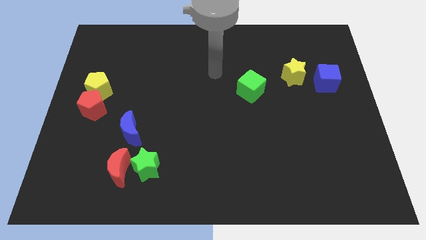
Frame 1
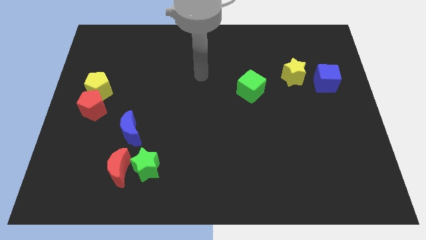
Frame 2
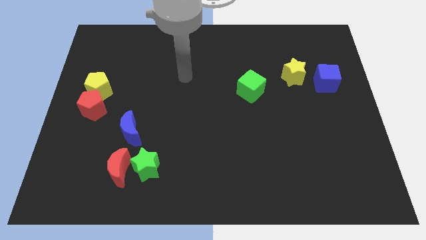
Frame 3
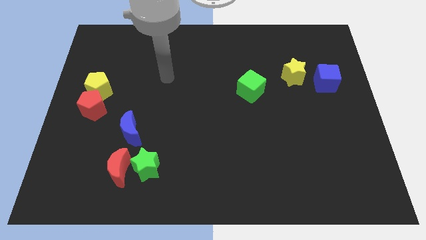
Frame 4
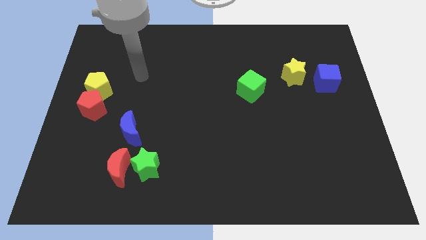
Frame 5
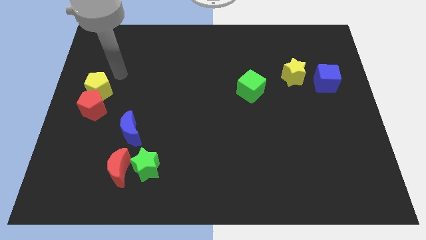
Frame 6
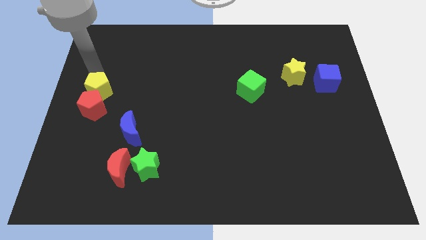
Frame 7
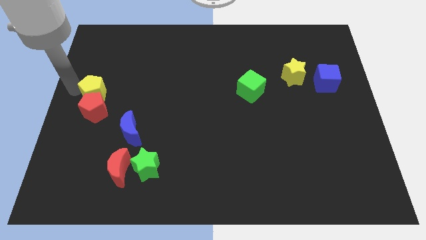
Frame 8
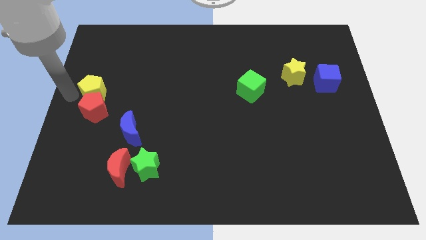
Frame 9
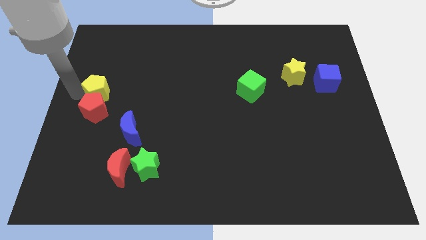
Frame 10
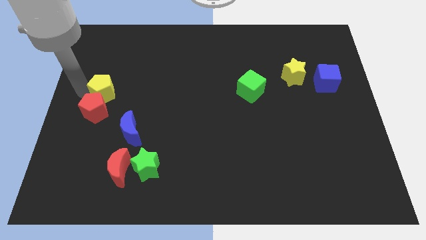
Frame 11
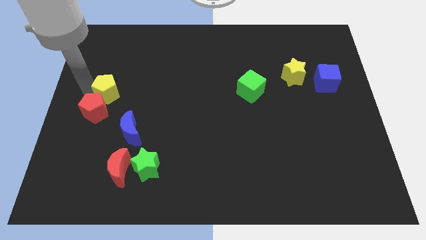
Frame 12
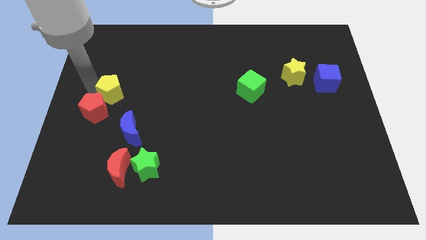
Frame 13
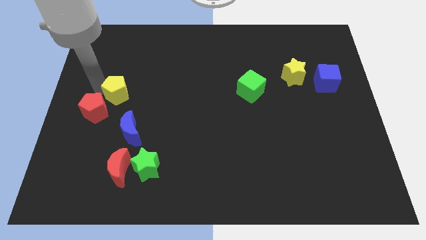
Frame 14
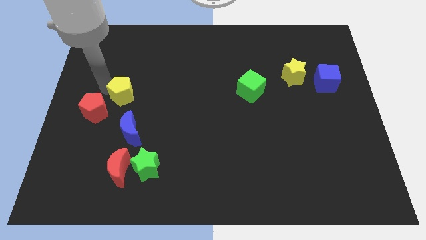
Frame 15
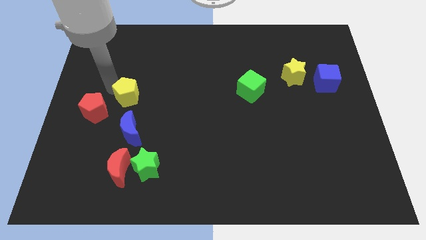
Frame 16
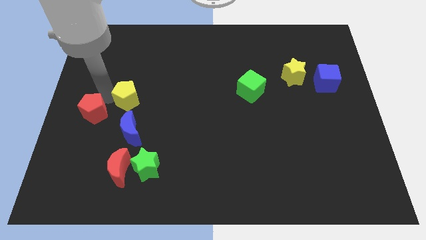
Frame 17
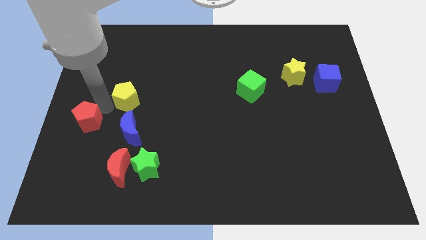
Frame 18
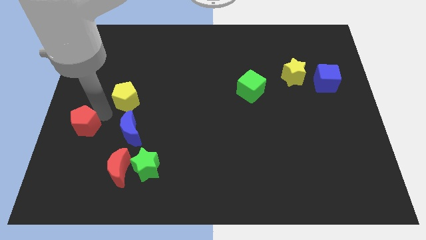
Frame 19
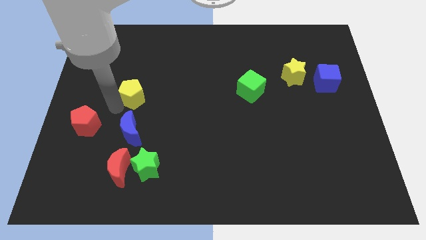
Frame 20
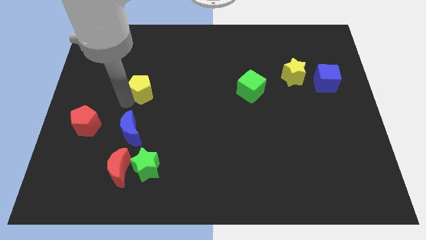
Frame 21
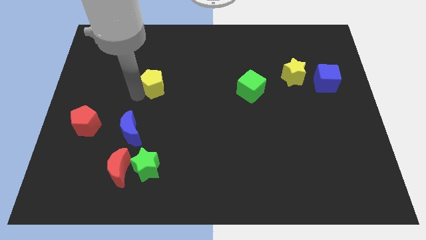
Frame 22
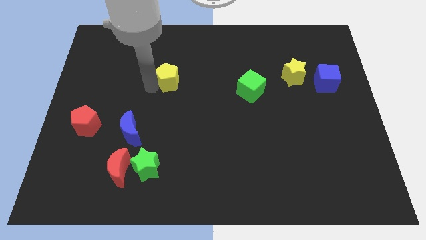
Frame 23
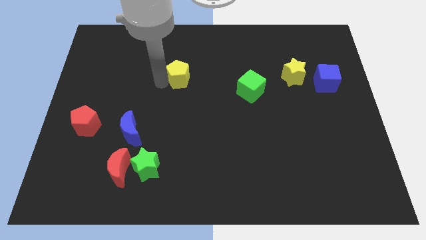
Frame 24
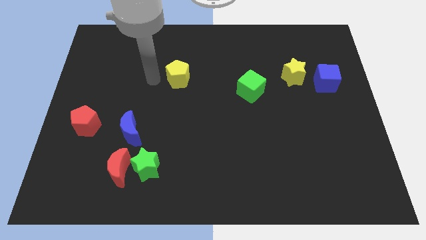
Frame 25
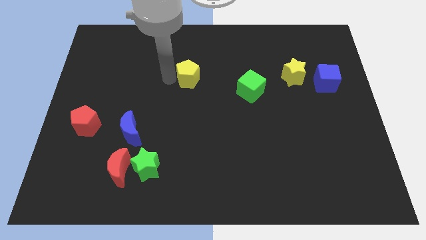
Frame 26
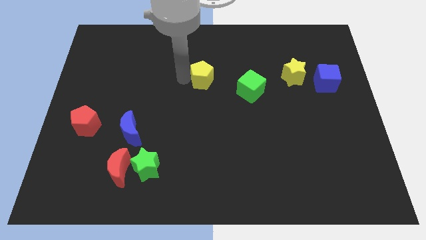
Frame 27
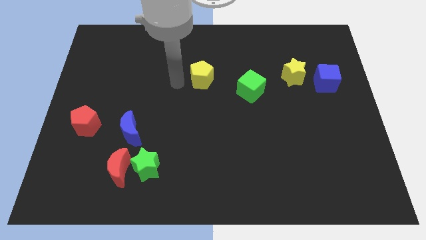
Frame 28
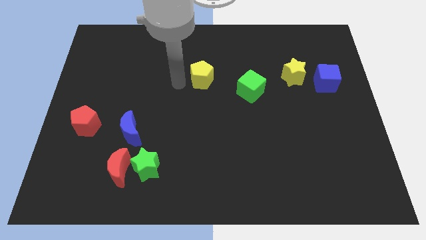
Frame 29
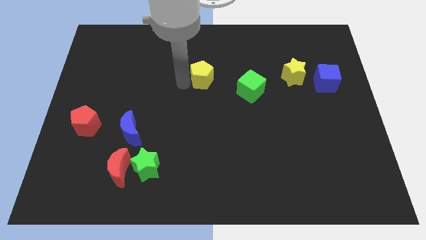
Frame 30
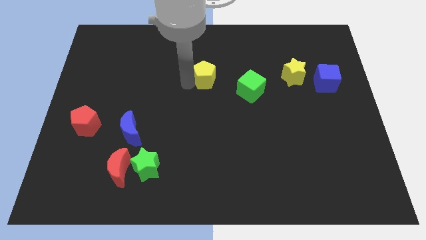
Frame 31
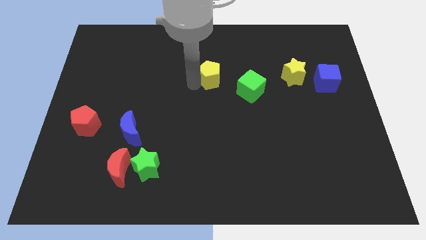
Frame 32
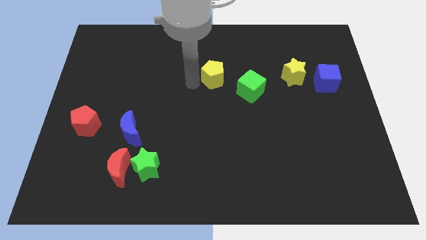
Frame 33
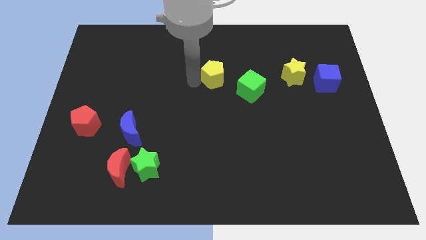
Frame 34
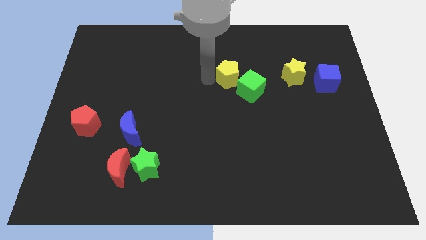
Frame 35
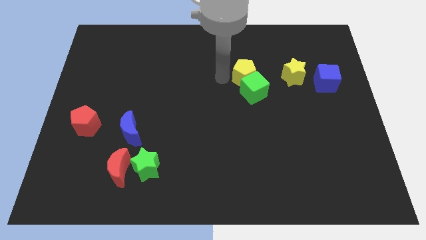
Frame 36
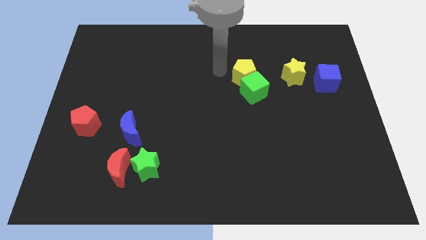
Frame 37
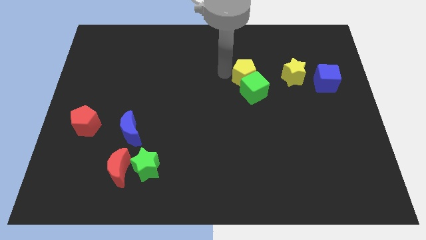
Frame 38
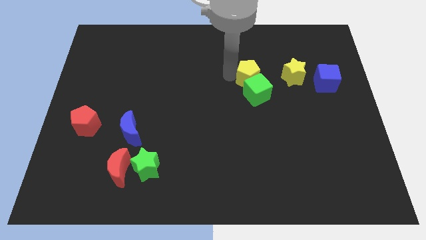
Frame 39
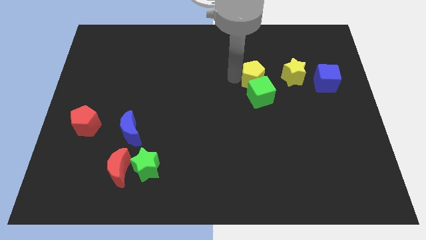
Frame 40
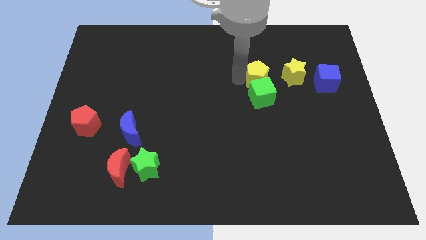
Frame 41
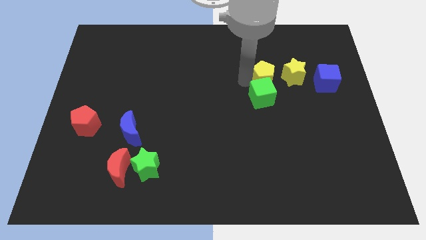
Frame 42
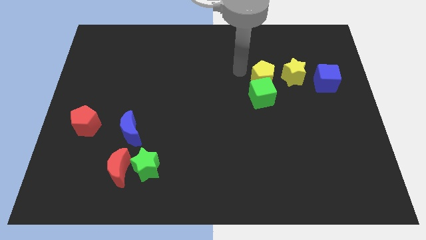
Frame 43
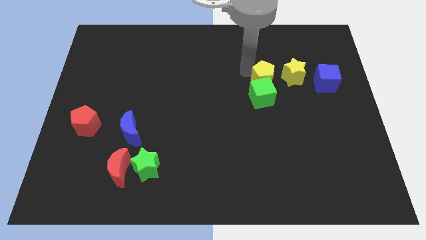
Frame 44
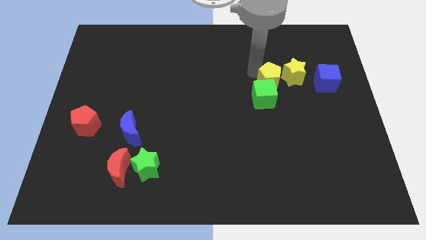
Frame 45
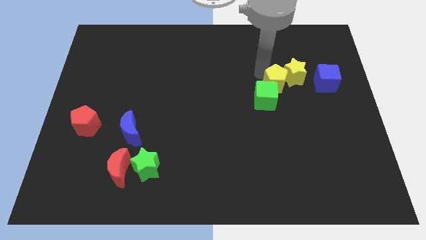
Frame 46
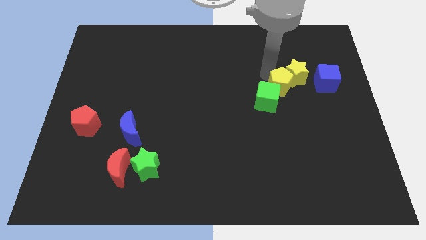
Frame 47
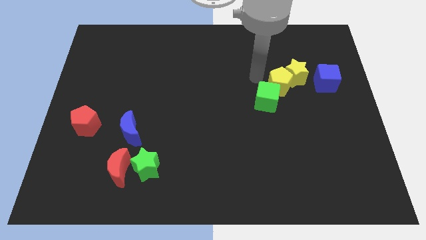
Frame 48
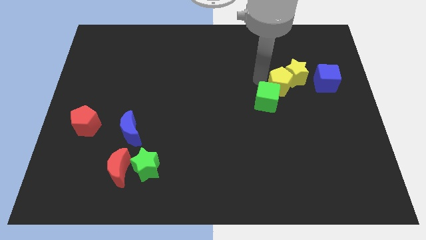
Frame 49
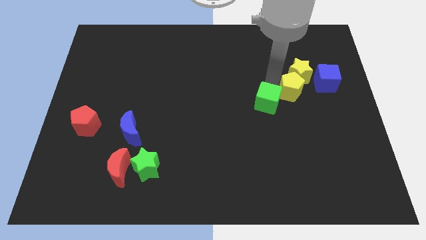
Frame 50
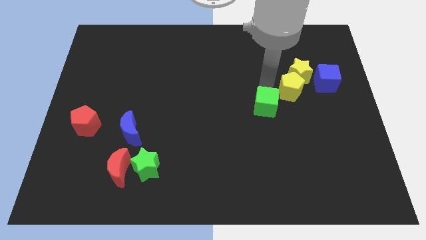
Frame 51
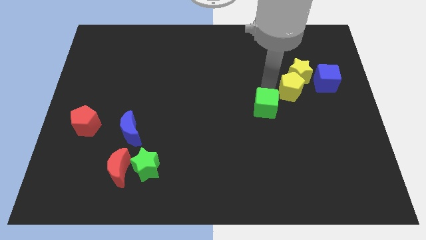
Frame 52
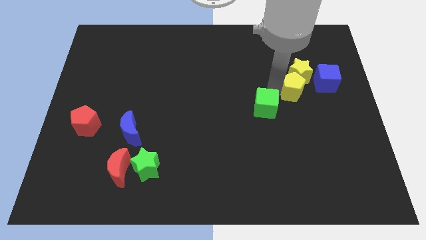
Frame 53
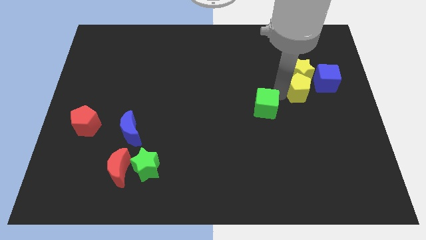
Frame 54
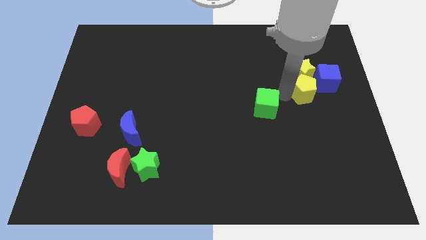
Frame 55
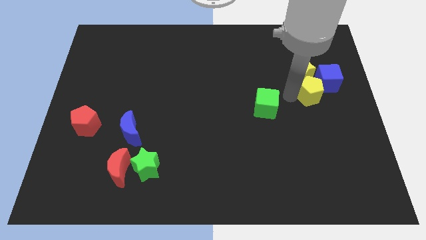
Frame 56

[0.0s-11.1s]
push the yellow pentagon close to the blue cube

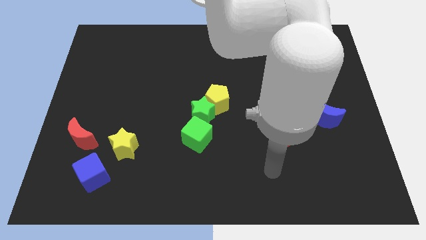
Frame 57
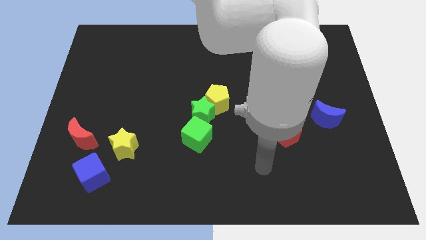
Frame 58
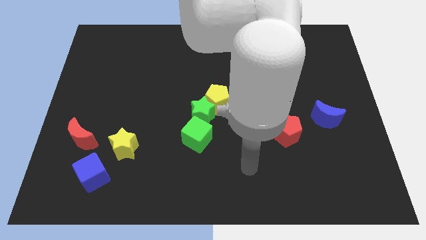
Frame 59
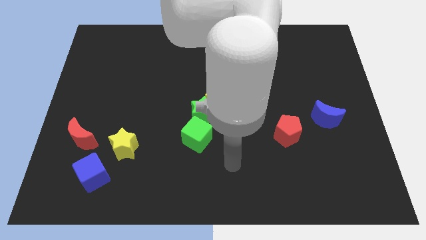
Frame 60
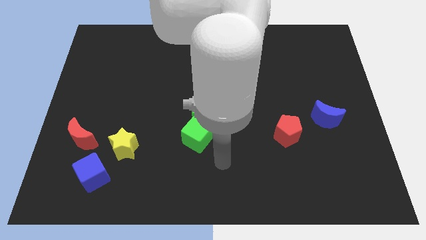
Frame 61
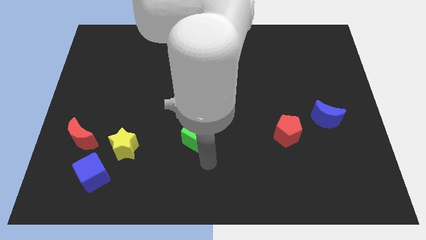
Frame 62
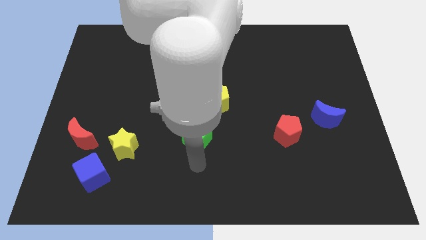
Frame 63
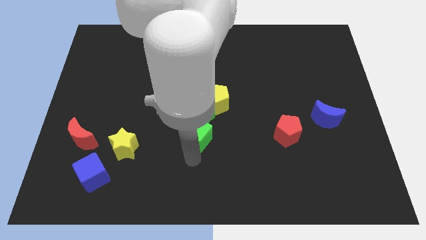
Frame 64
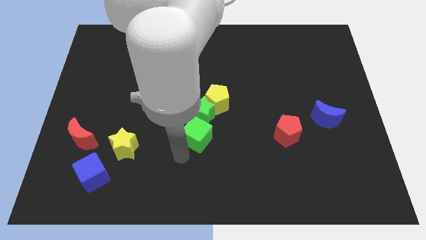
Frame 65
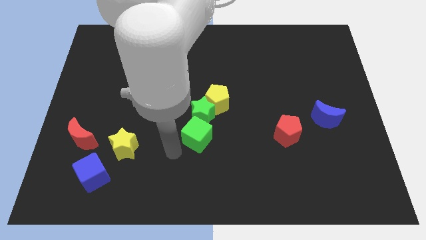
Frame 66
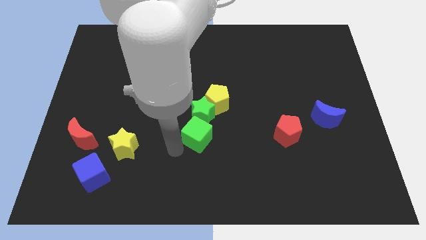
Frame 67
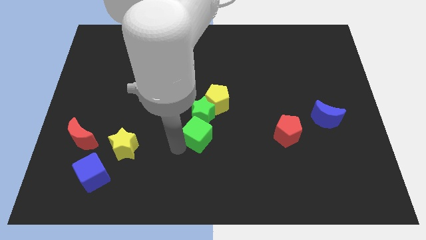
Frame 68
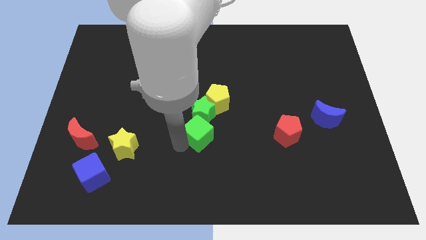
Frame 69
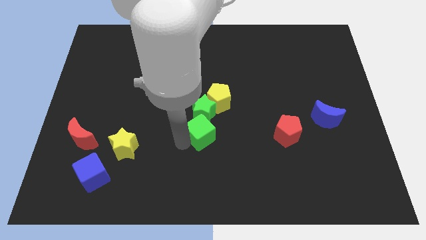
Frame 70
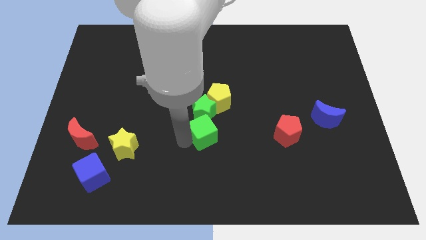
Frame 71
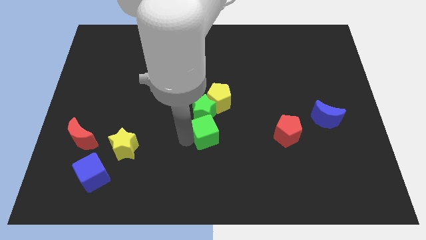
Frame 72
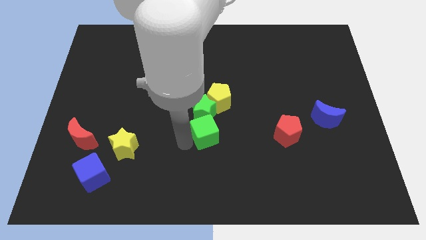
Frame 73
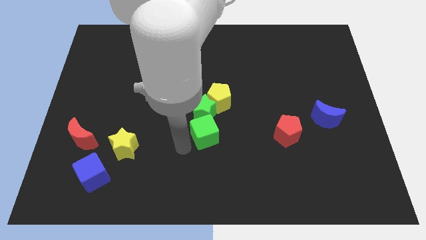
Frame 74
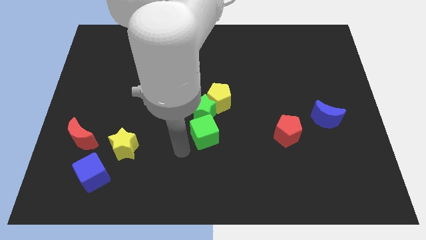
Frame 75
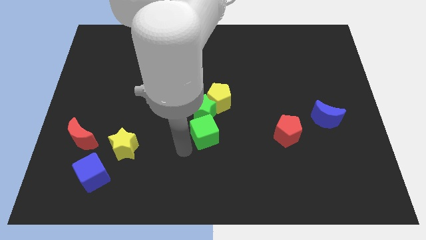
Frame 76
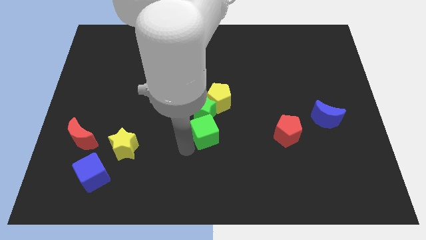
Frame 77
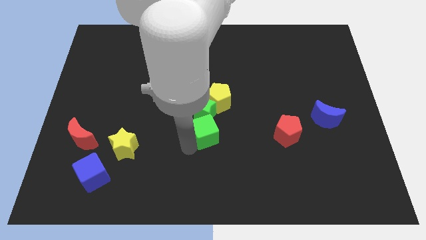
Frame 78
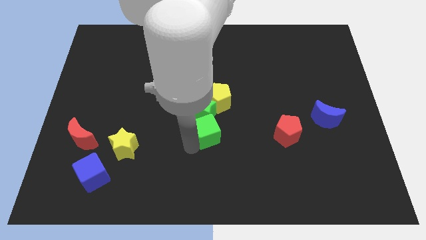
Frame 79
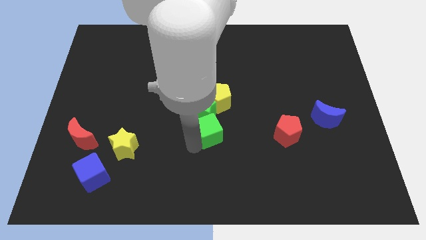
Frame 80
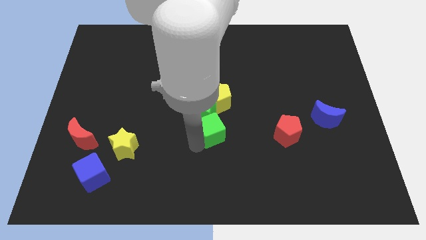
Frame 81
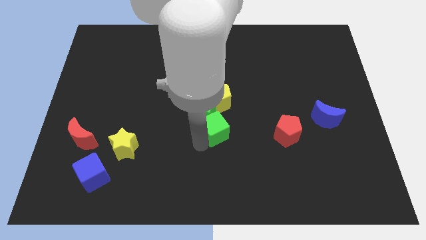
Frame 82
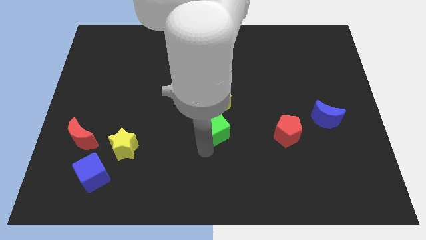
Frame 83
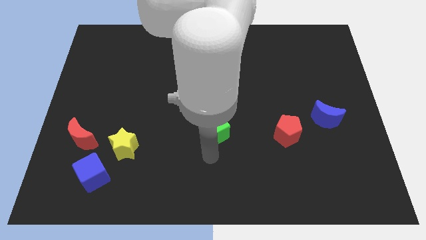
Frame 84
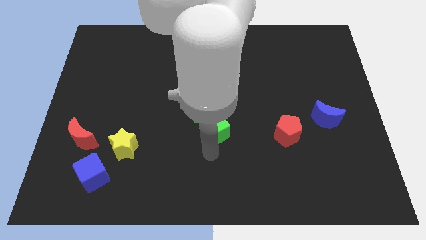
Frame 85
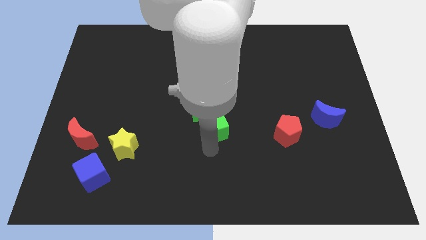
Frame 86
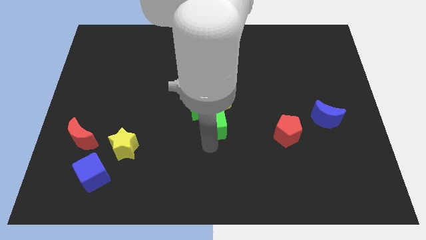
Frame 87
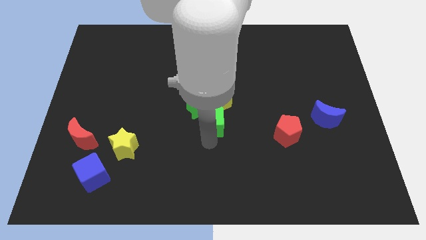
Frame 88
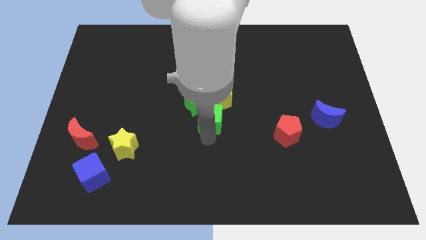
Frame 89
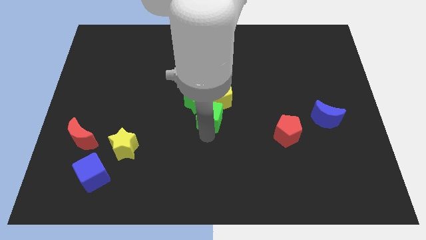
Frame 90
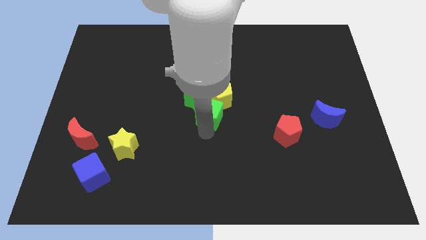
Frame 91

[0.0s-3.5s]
slide the green cube close to the yellow pentagon
